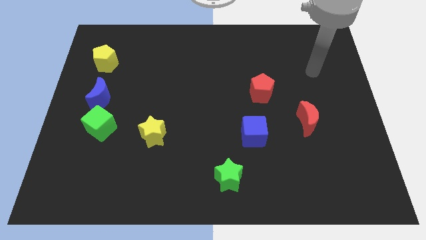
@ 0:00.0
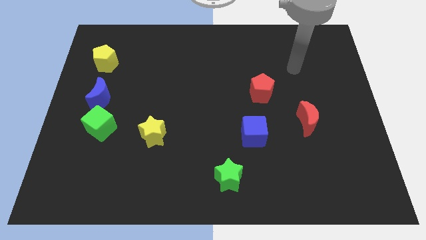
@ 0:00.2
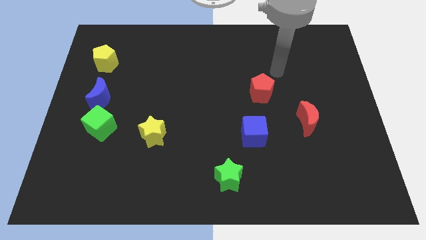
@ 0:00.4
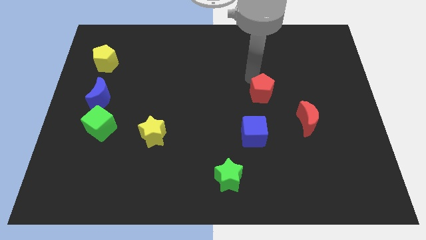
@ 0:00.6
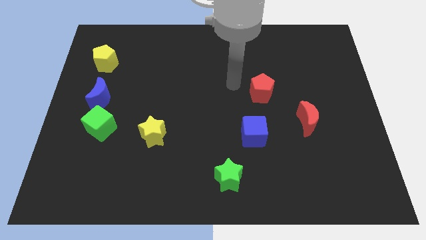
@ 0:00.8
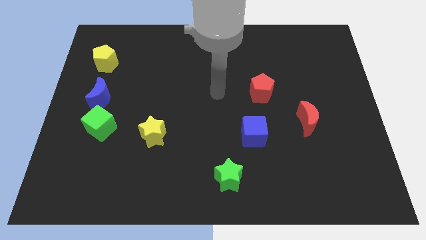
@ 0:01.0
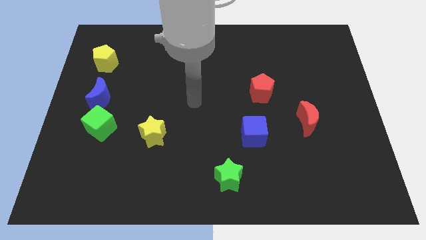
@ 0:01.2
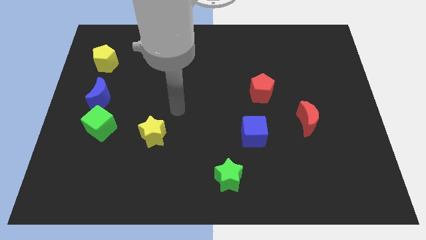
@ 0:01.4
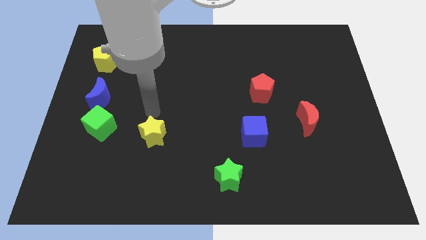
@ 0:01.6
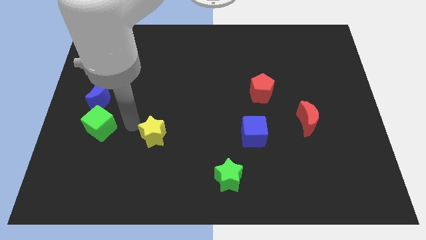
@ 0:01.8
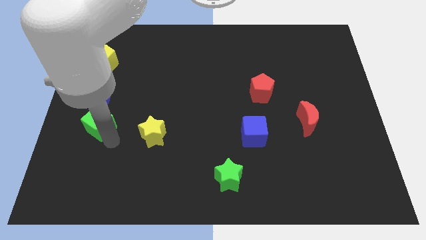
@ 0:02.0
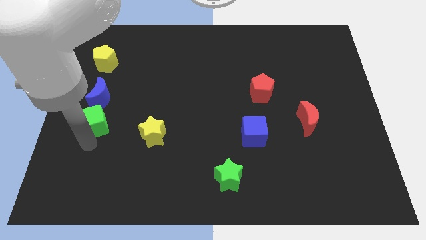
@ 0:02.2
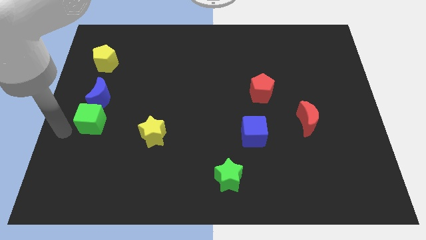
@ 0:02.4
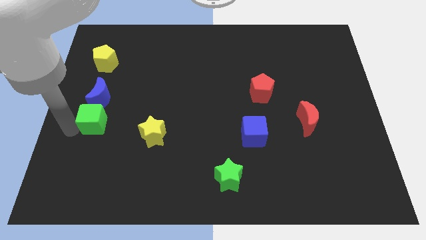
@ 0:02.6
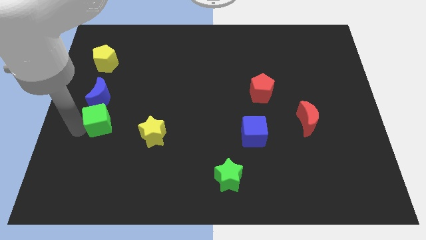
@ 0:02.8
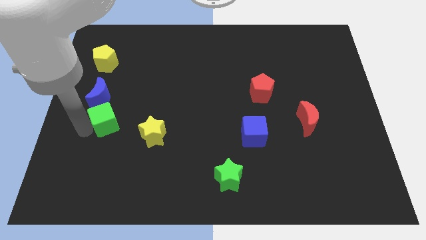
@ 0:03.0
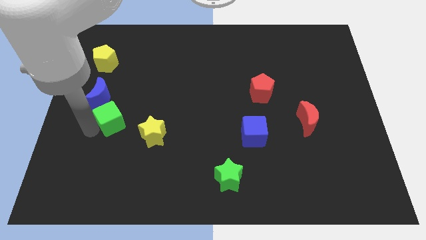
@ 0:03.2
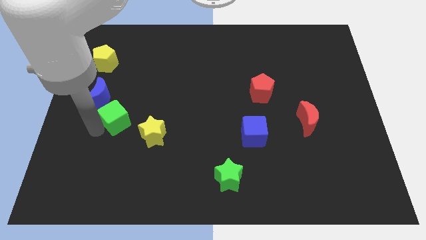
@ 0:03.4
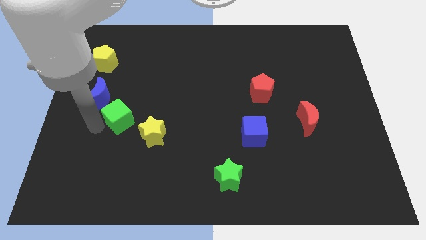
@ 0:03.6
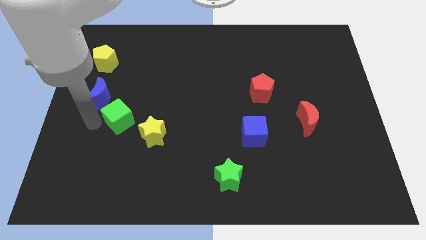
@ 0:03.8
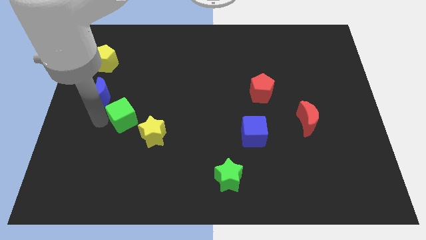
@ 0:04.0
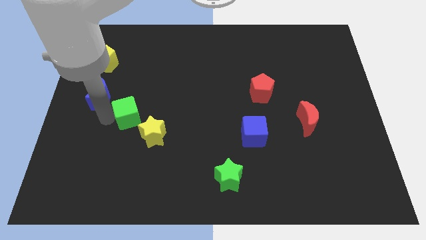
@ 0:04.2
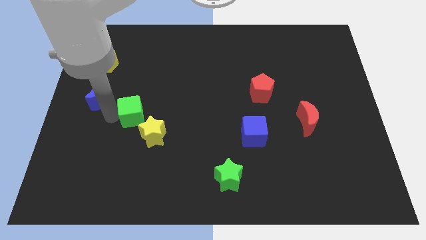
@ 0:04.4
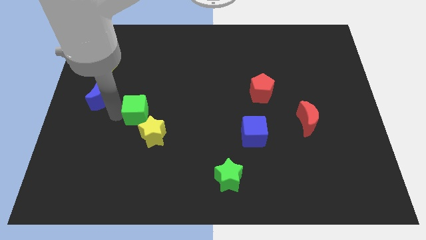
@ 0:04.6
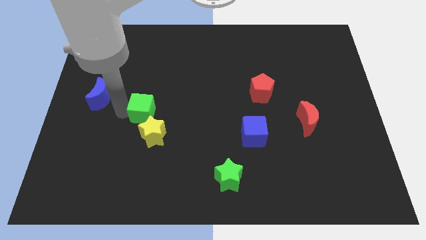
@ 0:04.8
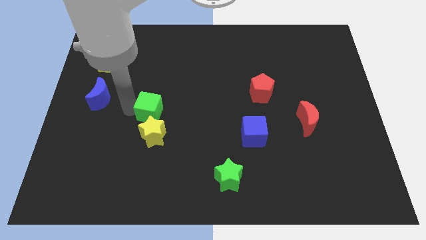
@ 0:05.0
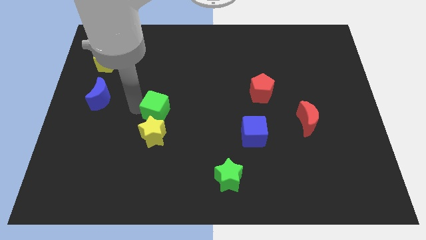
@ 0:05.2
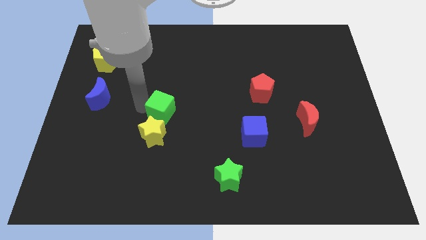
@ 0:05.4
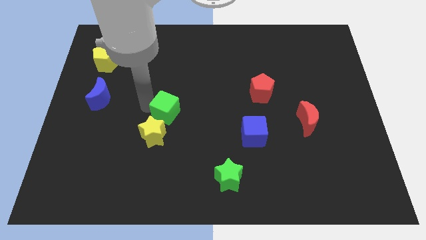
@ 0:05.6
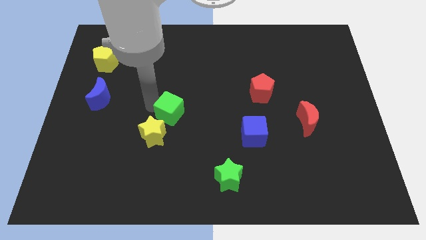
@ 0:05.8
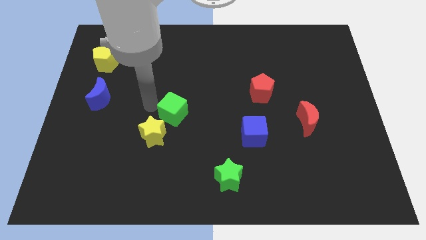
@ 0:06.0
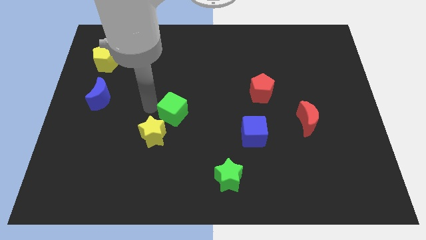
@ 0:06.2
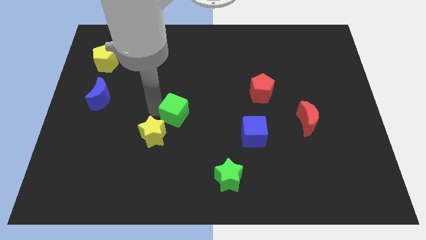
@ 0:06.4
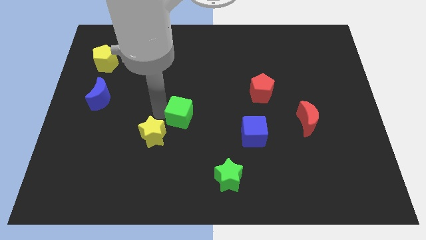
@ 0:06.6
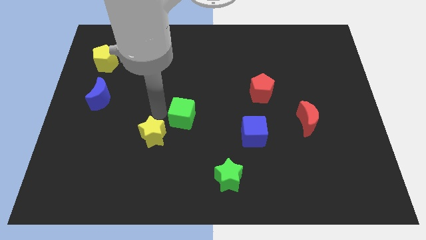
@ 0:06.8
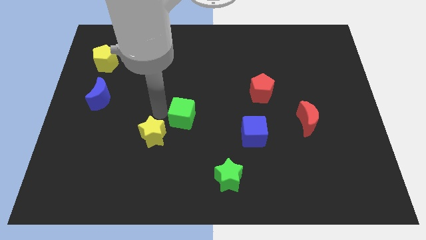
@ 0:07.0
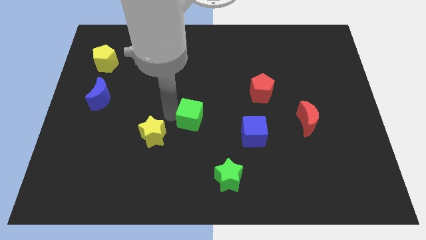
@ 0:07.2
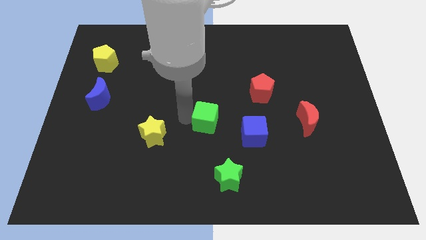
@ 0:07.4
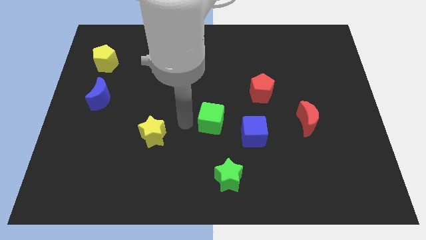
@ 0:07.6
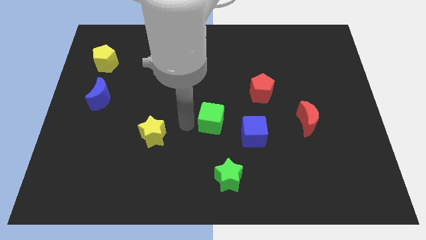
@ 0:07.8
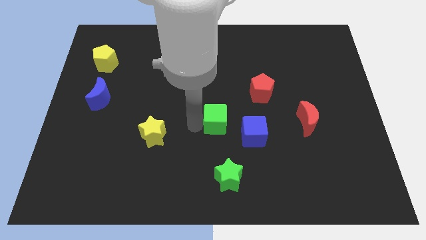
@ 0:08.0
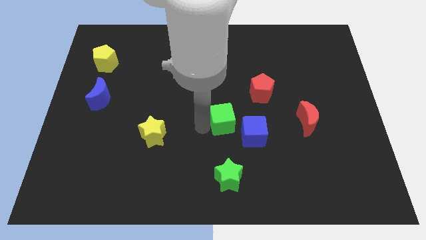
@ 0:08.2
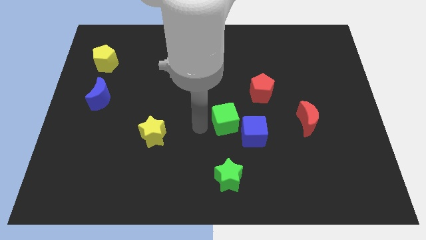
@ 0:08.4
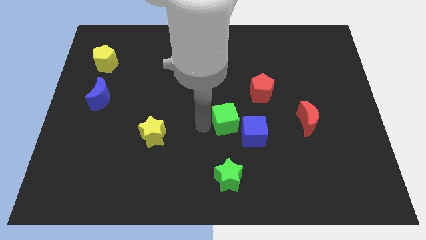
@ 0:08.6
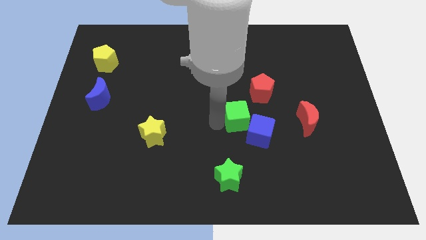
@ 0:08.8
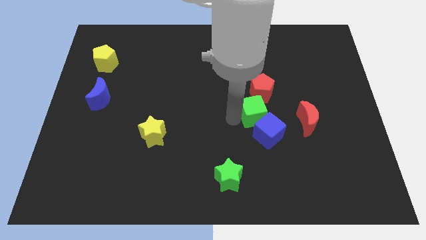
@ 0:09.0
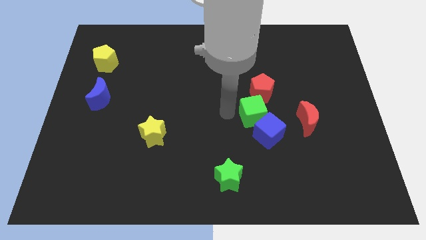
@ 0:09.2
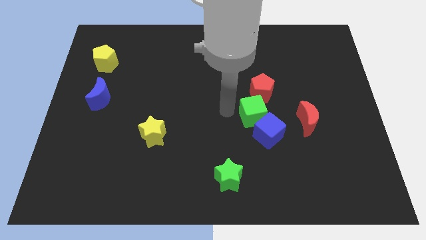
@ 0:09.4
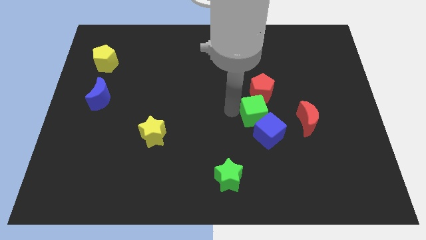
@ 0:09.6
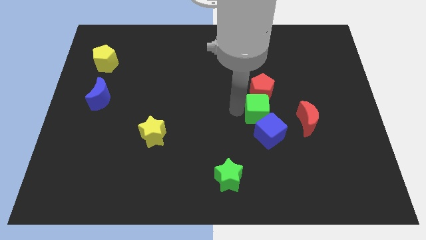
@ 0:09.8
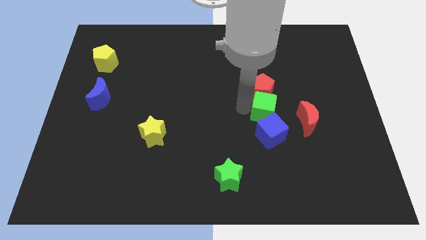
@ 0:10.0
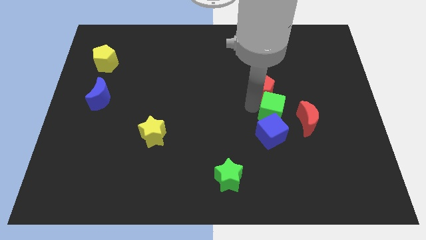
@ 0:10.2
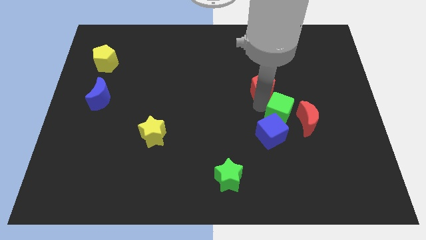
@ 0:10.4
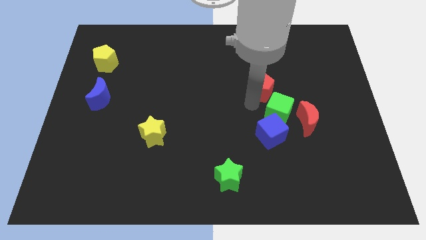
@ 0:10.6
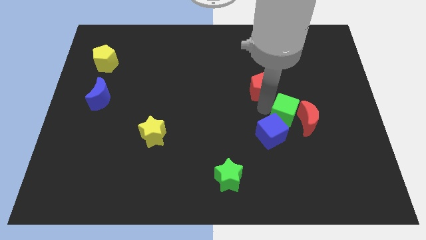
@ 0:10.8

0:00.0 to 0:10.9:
put the green cube towards the red moon

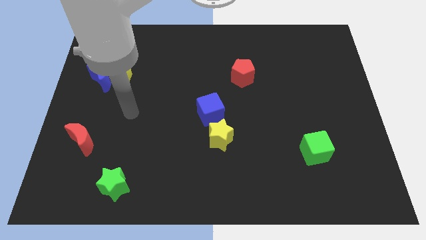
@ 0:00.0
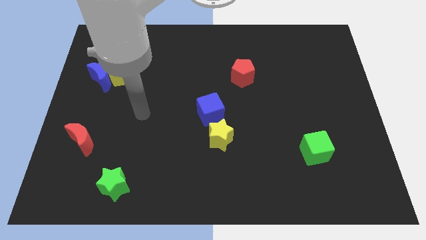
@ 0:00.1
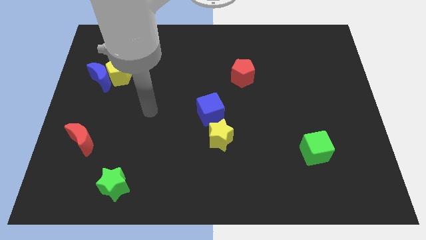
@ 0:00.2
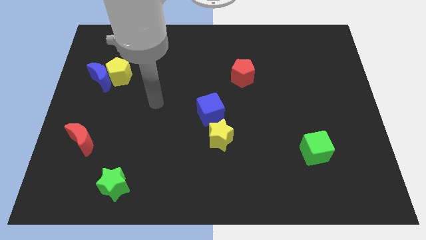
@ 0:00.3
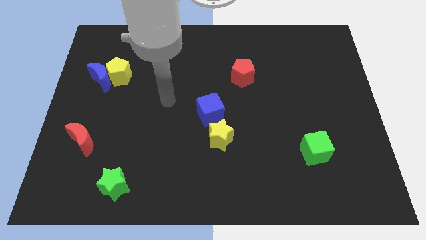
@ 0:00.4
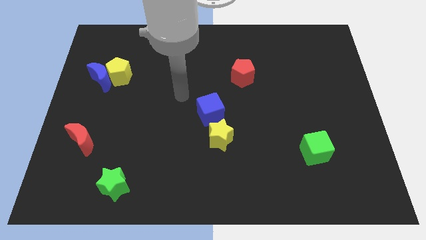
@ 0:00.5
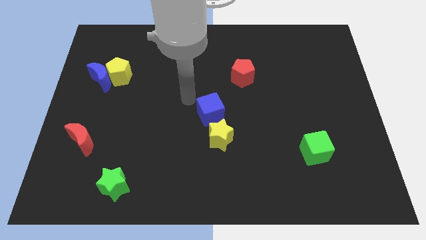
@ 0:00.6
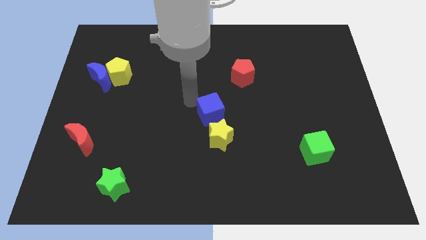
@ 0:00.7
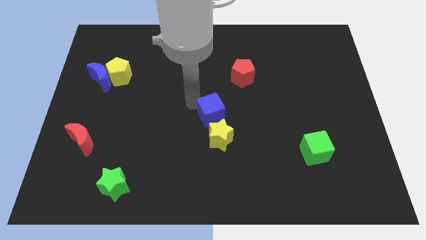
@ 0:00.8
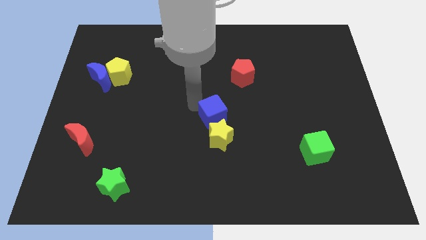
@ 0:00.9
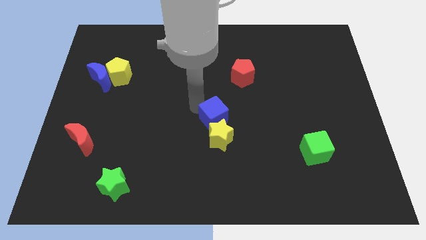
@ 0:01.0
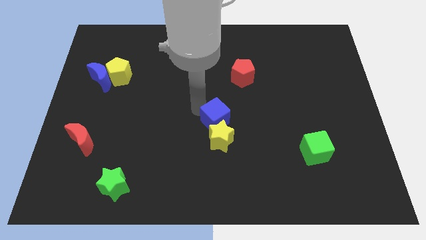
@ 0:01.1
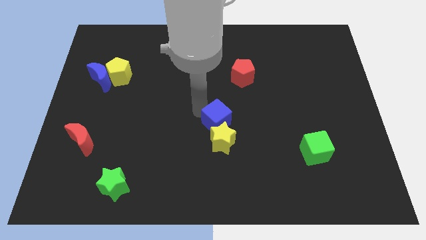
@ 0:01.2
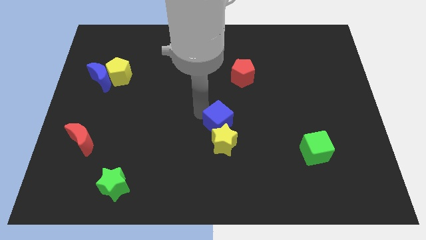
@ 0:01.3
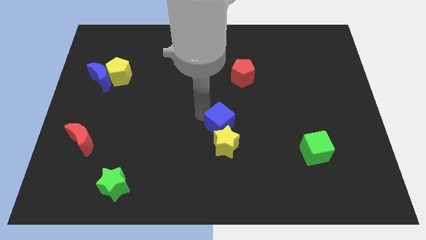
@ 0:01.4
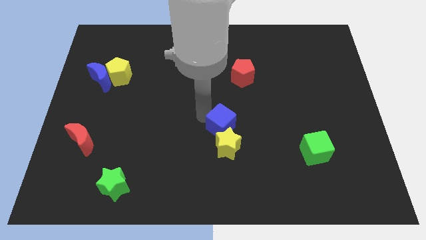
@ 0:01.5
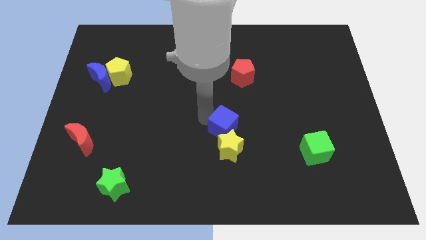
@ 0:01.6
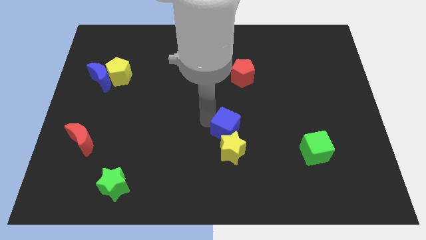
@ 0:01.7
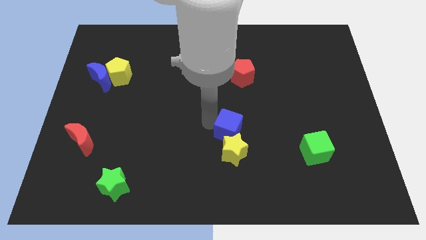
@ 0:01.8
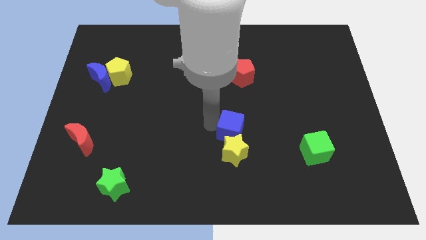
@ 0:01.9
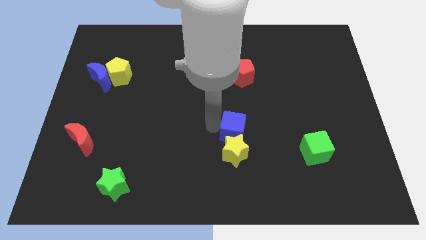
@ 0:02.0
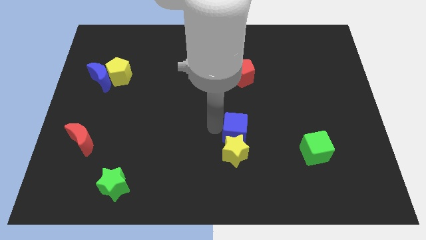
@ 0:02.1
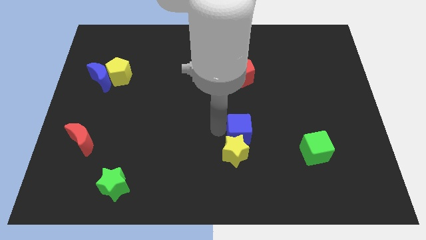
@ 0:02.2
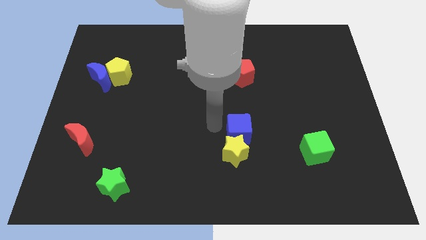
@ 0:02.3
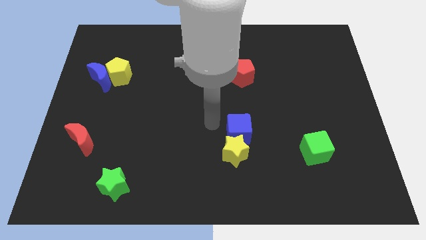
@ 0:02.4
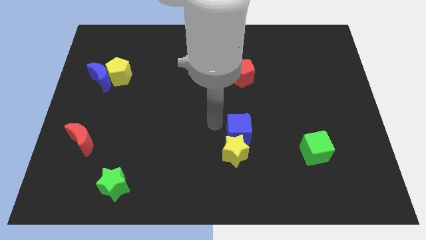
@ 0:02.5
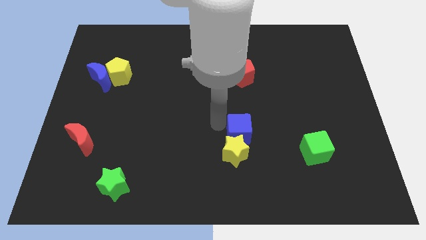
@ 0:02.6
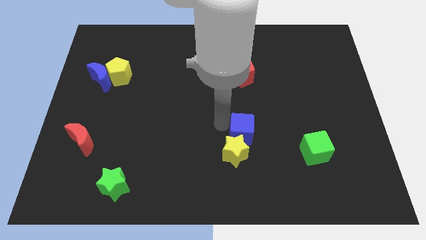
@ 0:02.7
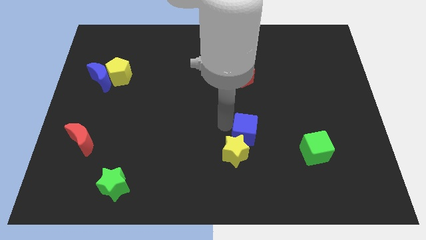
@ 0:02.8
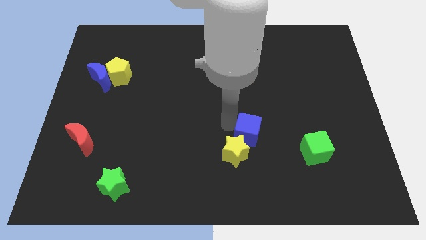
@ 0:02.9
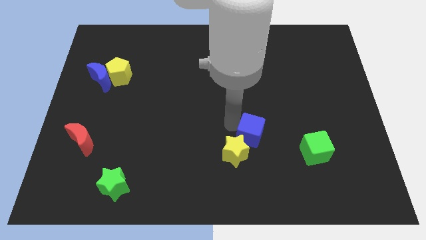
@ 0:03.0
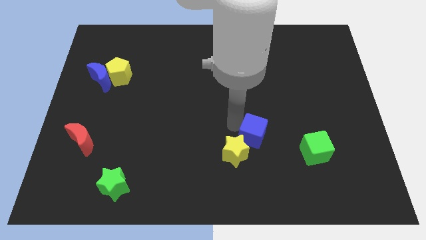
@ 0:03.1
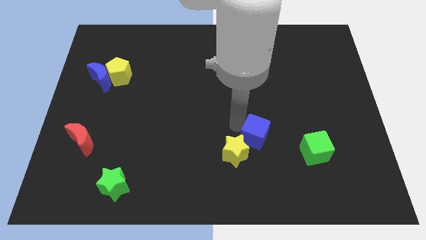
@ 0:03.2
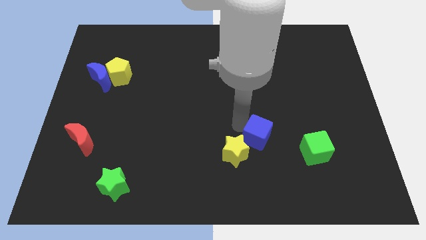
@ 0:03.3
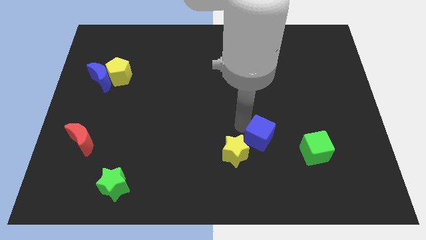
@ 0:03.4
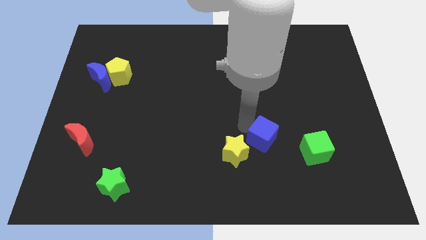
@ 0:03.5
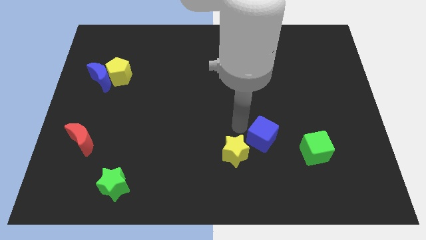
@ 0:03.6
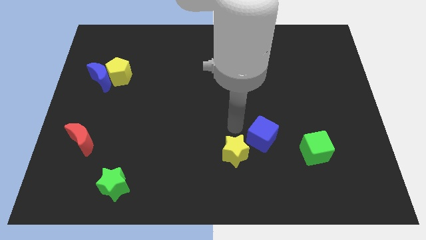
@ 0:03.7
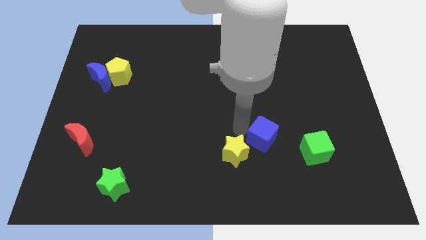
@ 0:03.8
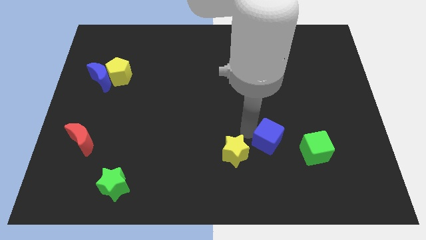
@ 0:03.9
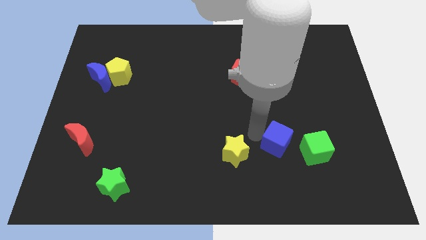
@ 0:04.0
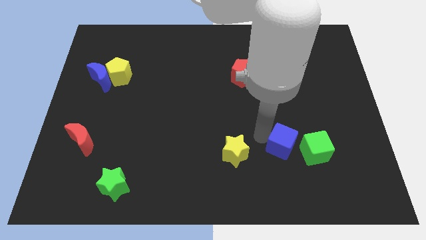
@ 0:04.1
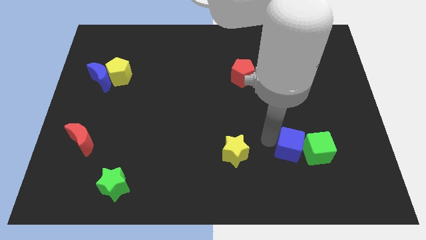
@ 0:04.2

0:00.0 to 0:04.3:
put the blue cube close to the green cube
